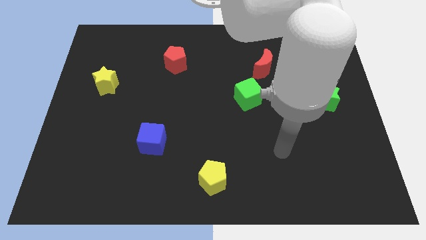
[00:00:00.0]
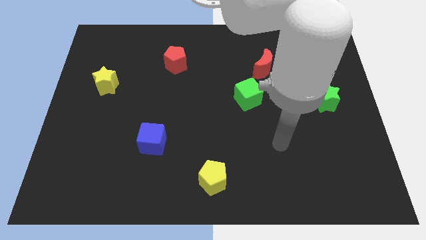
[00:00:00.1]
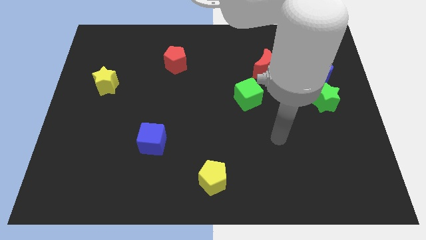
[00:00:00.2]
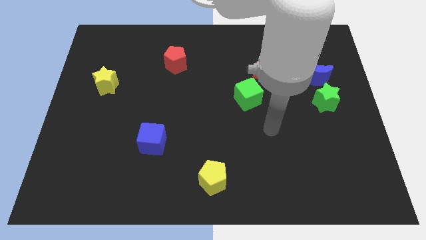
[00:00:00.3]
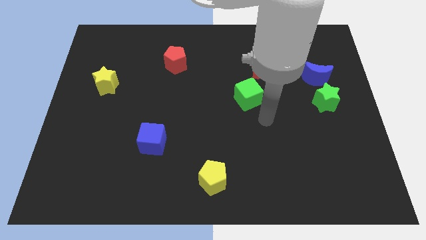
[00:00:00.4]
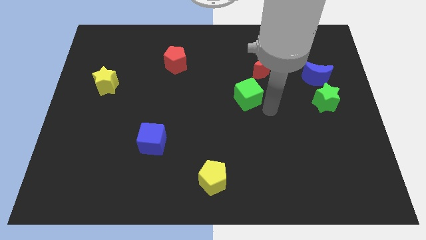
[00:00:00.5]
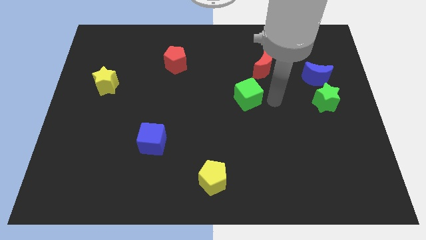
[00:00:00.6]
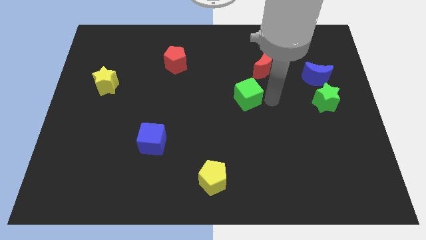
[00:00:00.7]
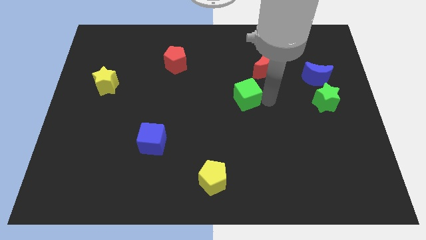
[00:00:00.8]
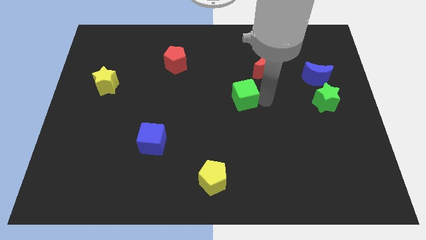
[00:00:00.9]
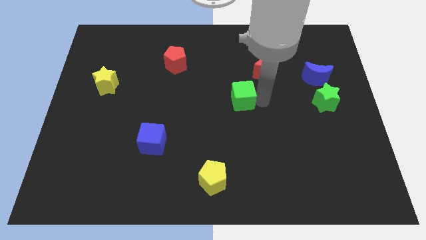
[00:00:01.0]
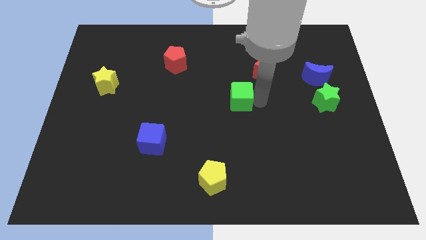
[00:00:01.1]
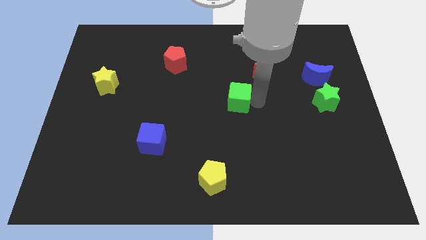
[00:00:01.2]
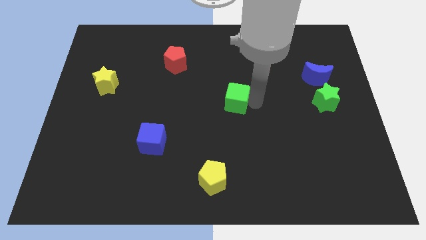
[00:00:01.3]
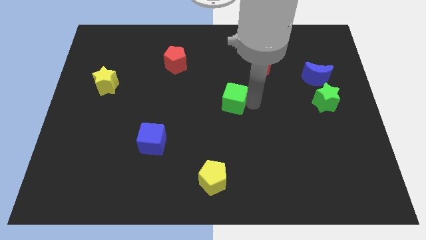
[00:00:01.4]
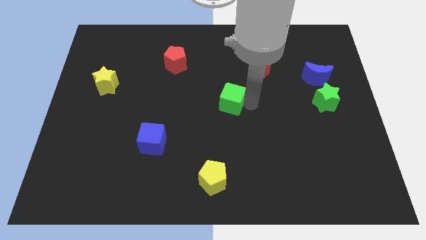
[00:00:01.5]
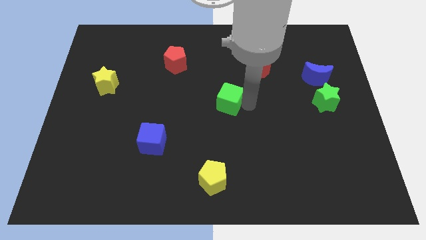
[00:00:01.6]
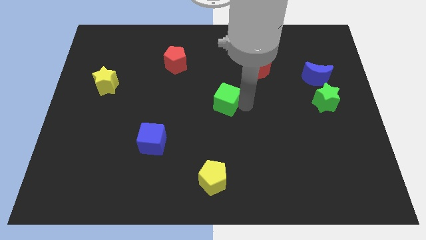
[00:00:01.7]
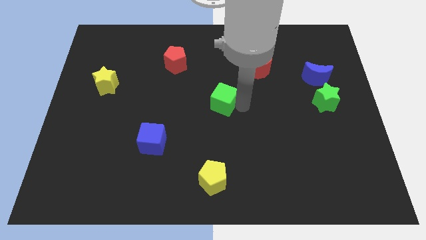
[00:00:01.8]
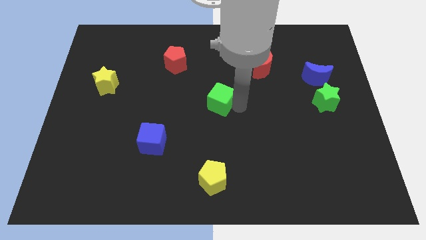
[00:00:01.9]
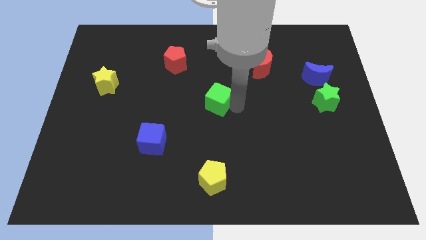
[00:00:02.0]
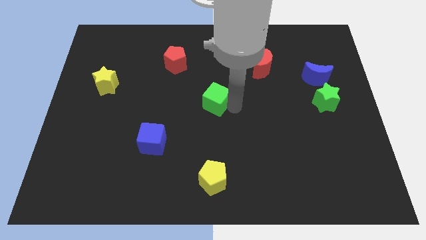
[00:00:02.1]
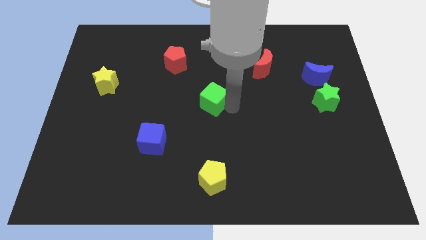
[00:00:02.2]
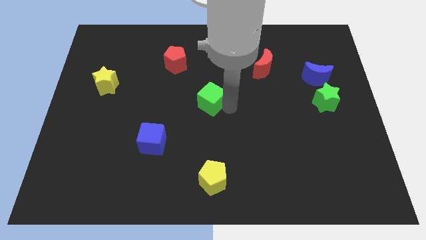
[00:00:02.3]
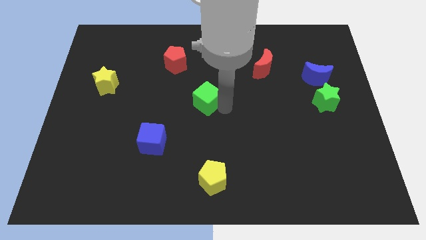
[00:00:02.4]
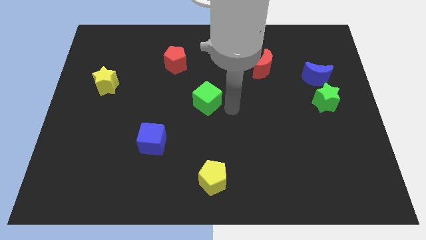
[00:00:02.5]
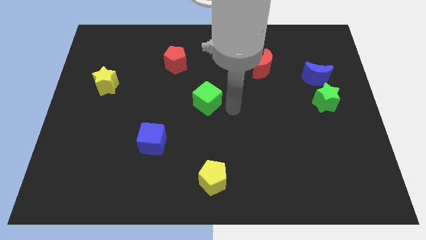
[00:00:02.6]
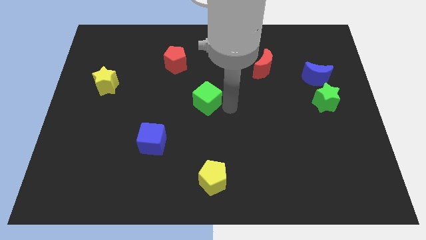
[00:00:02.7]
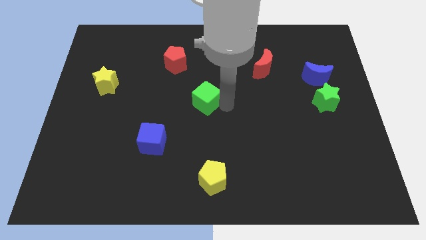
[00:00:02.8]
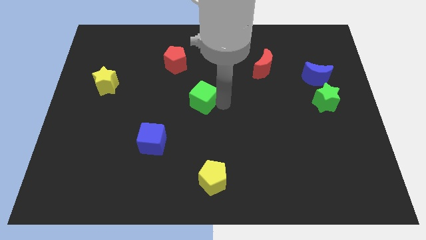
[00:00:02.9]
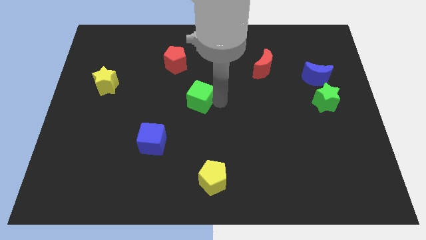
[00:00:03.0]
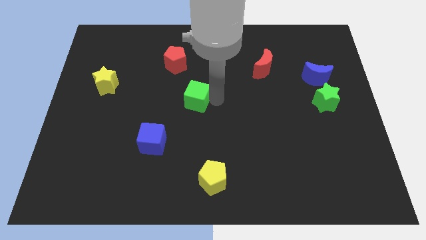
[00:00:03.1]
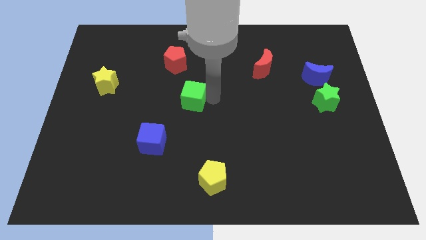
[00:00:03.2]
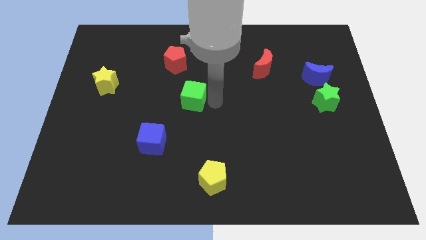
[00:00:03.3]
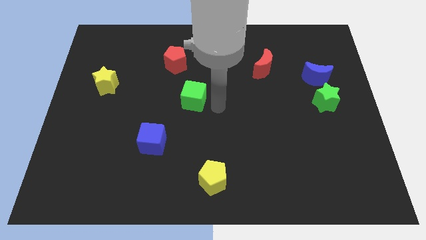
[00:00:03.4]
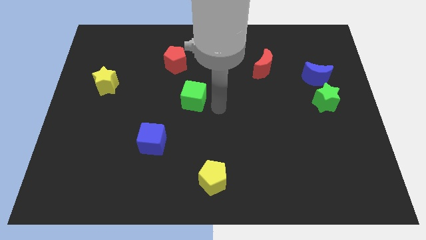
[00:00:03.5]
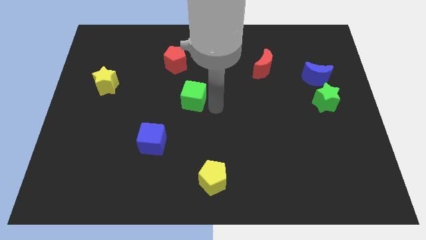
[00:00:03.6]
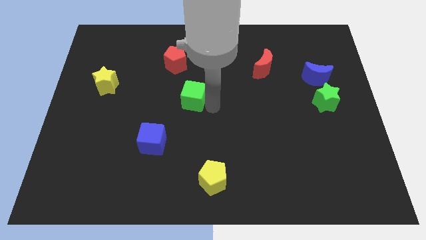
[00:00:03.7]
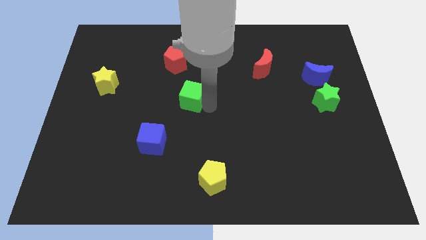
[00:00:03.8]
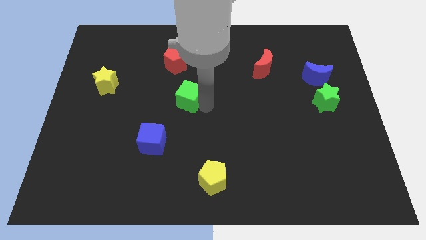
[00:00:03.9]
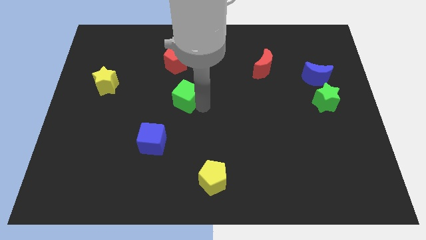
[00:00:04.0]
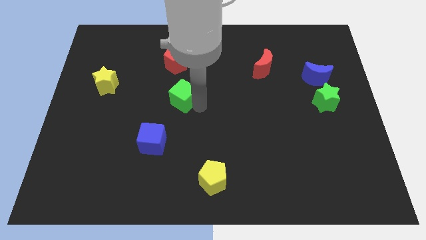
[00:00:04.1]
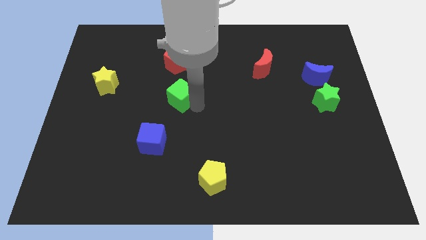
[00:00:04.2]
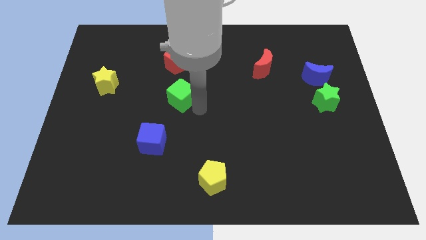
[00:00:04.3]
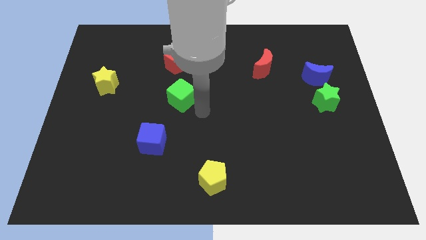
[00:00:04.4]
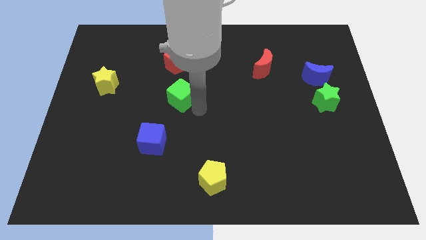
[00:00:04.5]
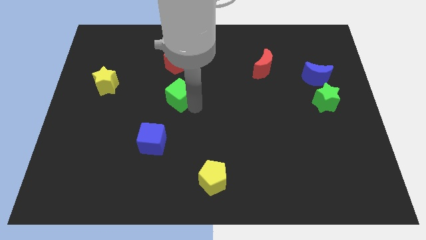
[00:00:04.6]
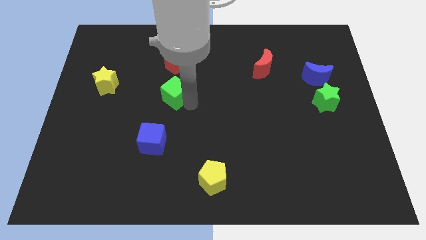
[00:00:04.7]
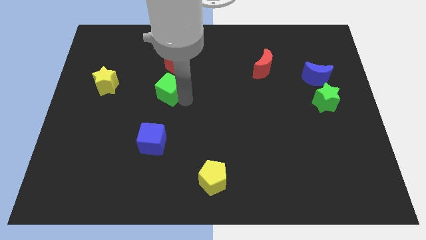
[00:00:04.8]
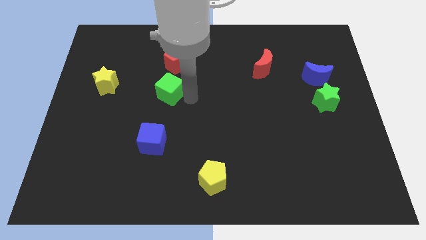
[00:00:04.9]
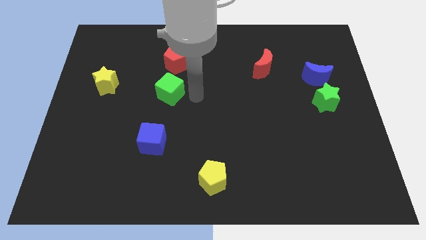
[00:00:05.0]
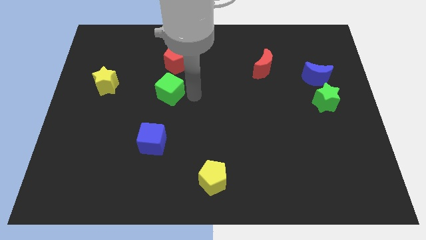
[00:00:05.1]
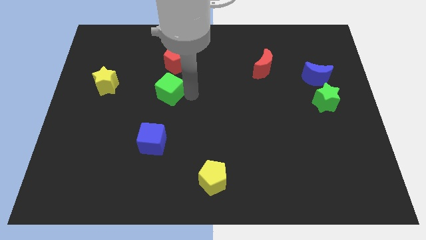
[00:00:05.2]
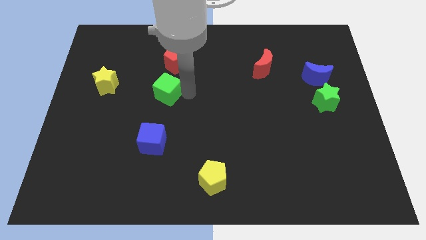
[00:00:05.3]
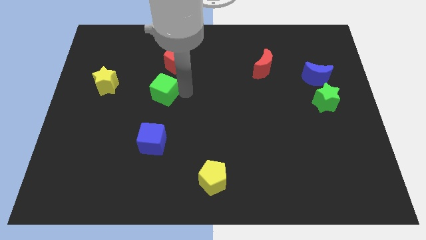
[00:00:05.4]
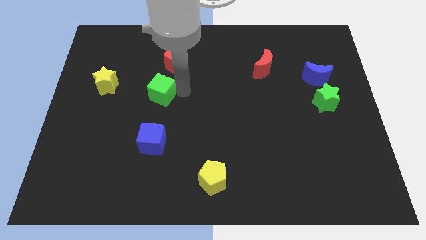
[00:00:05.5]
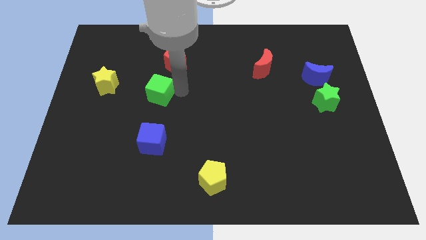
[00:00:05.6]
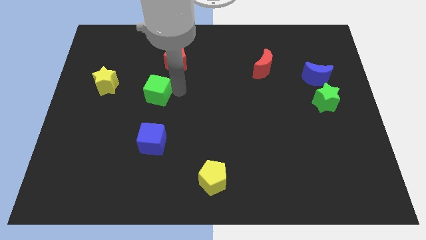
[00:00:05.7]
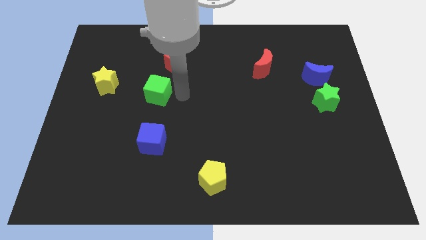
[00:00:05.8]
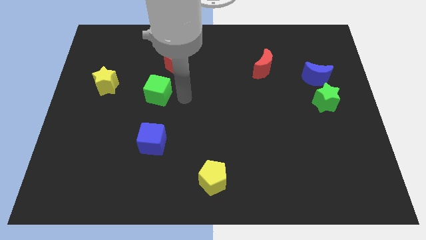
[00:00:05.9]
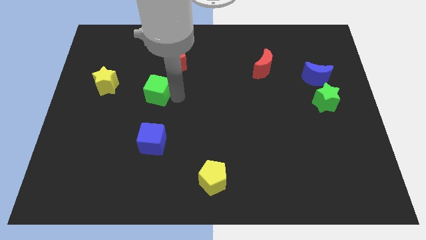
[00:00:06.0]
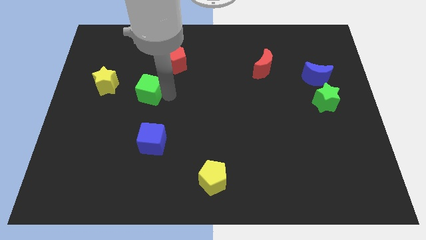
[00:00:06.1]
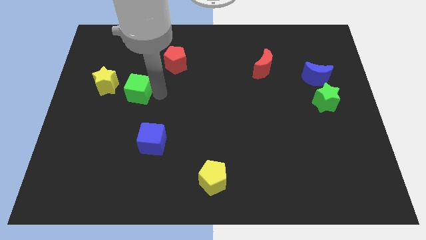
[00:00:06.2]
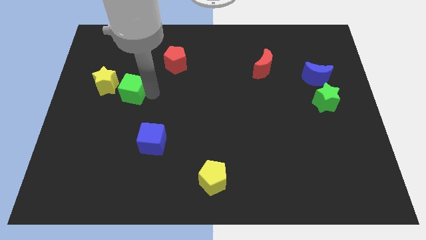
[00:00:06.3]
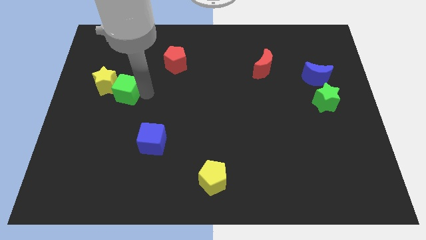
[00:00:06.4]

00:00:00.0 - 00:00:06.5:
slide the green cube to the yellow star
